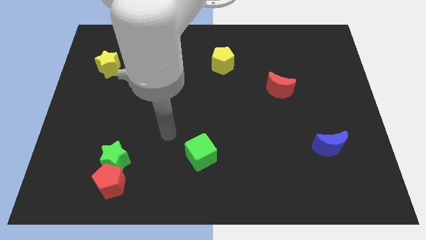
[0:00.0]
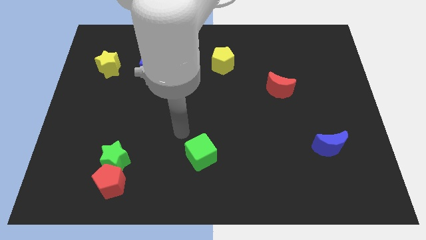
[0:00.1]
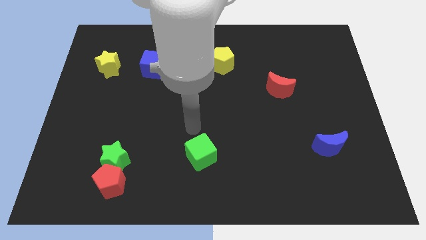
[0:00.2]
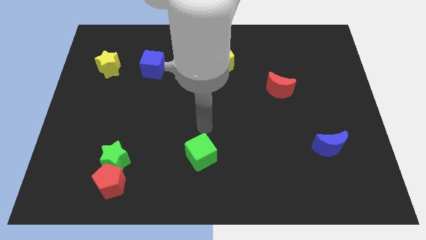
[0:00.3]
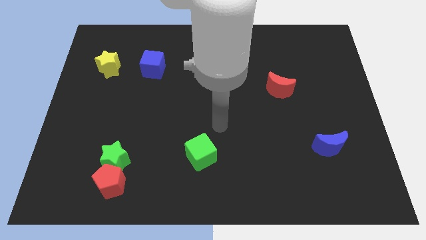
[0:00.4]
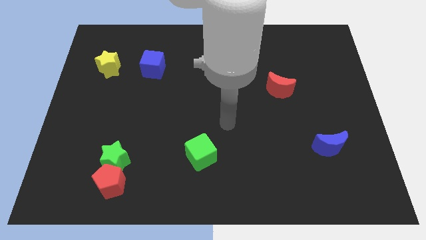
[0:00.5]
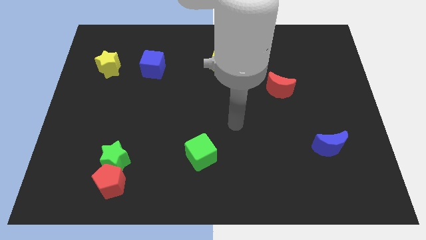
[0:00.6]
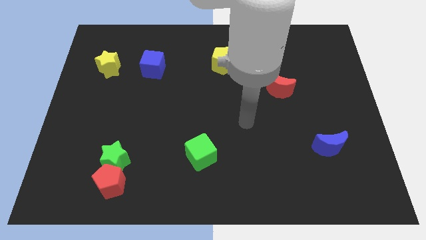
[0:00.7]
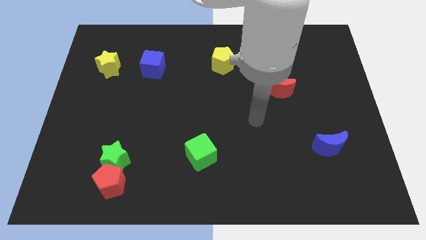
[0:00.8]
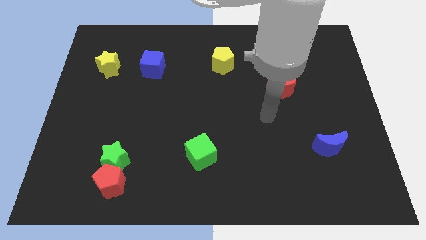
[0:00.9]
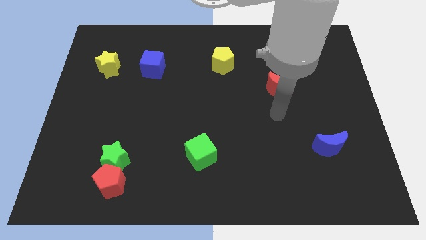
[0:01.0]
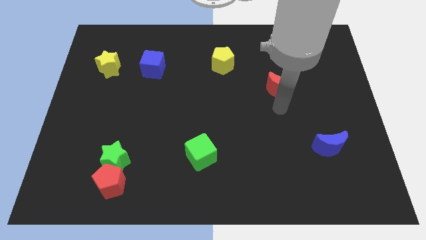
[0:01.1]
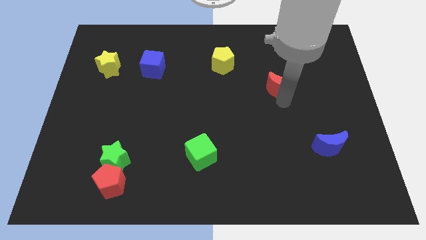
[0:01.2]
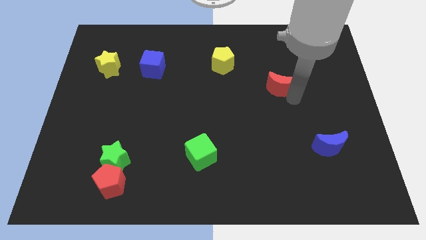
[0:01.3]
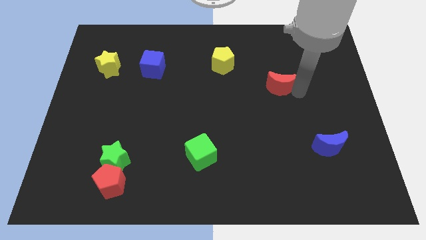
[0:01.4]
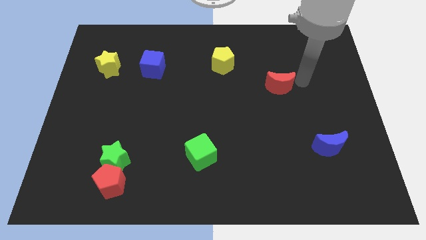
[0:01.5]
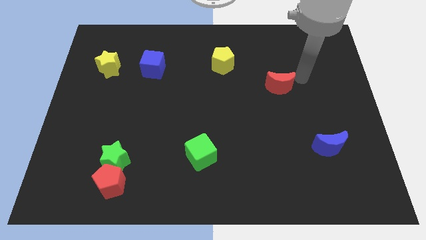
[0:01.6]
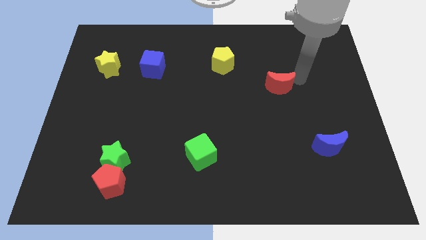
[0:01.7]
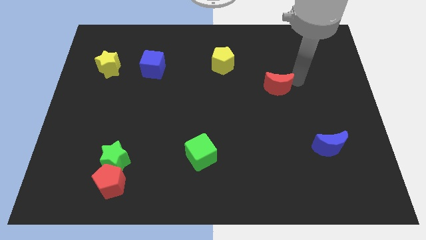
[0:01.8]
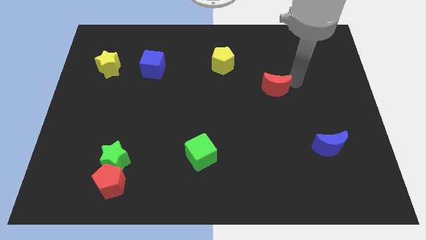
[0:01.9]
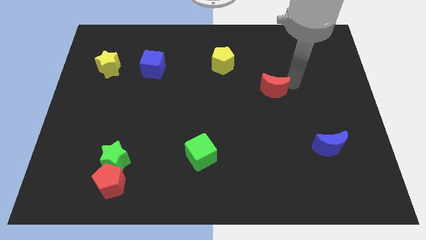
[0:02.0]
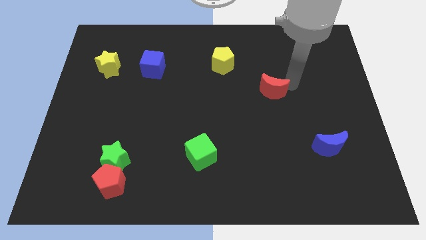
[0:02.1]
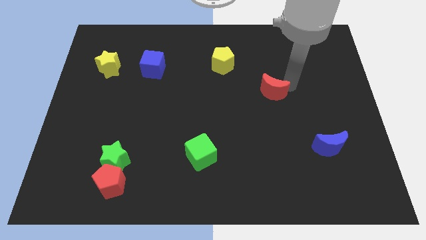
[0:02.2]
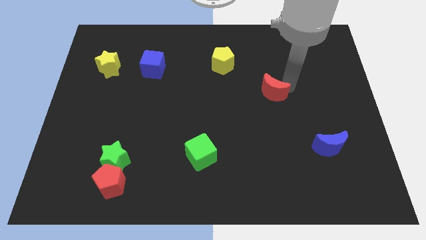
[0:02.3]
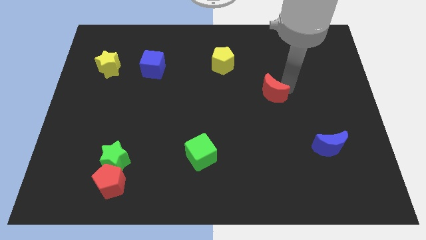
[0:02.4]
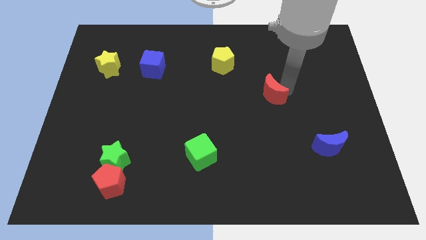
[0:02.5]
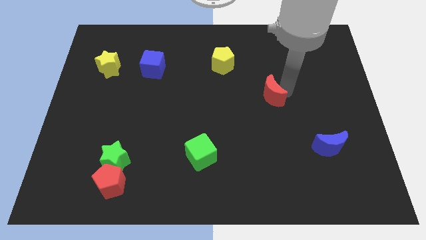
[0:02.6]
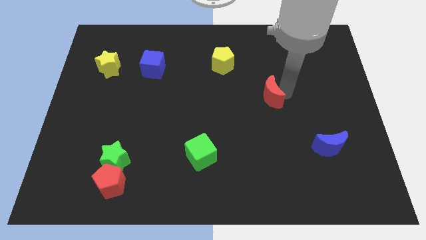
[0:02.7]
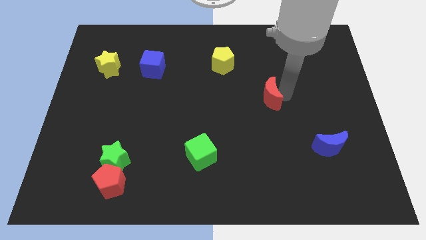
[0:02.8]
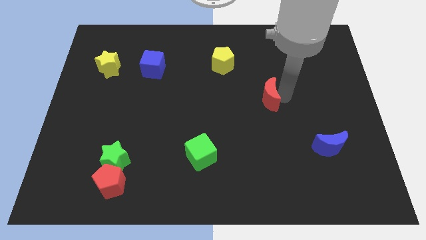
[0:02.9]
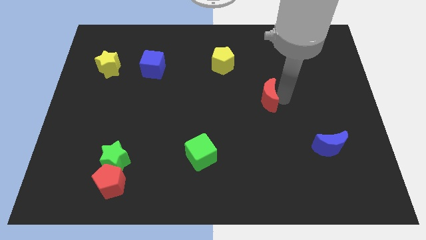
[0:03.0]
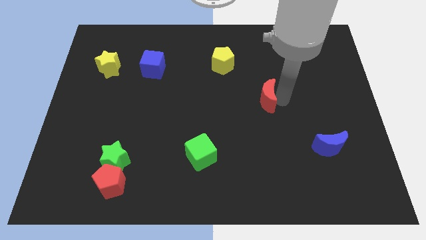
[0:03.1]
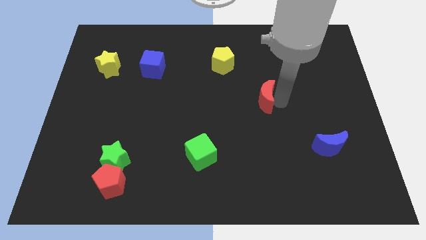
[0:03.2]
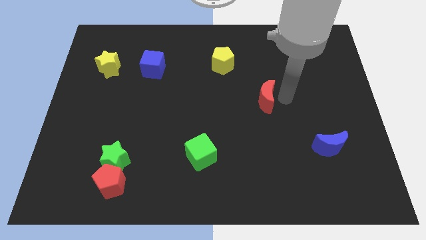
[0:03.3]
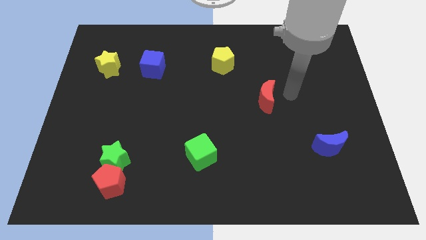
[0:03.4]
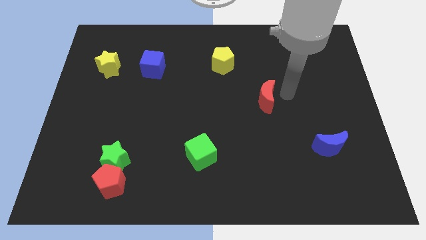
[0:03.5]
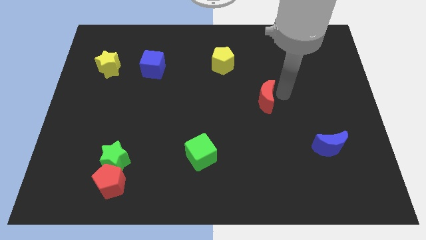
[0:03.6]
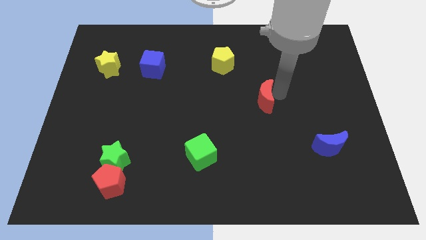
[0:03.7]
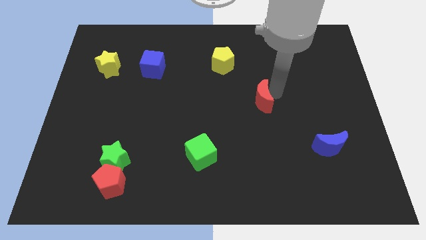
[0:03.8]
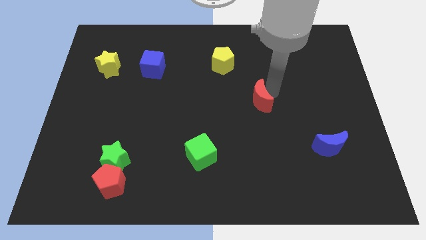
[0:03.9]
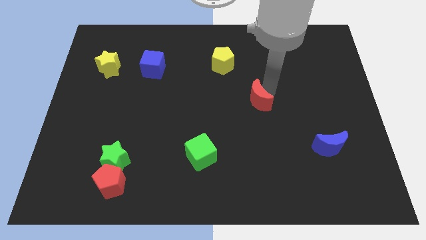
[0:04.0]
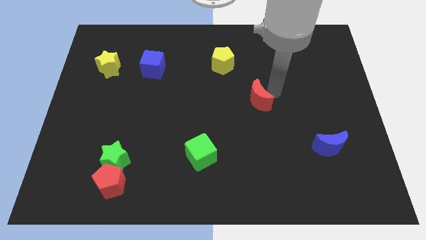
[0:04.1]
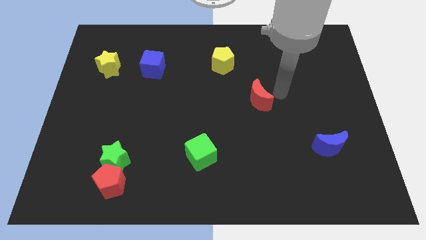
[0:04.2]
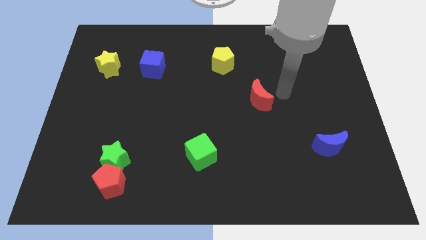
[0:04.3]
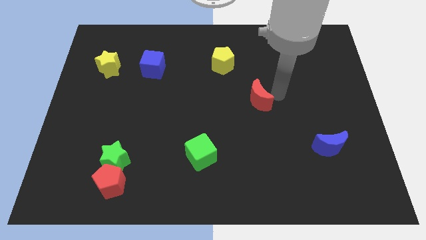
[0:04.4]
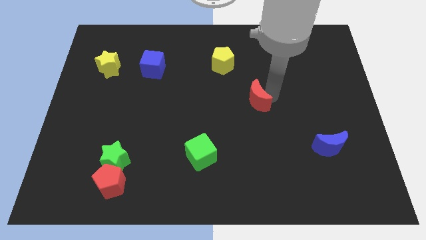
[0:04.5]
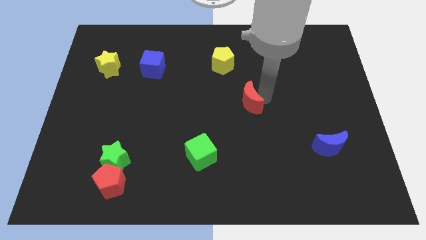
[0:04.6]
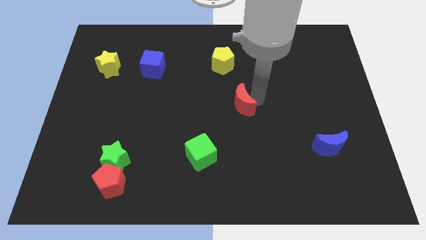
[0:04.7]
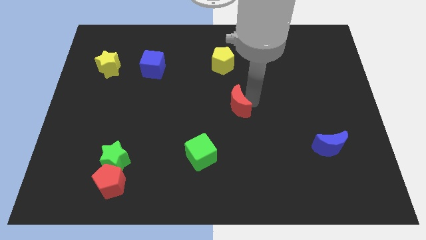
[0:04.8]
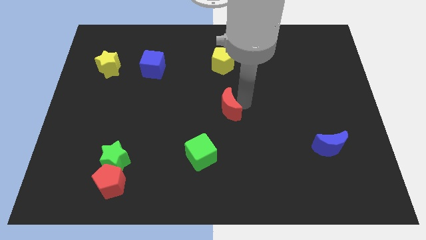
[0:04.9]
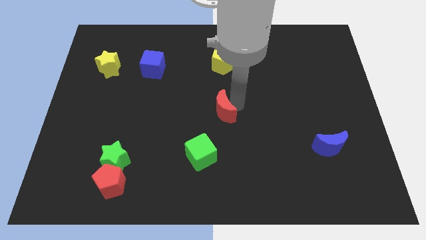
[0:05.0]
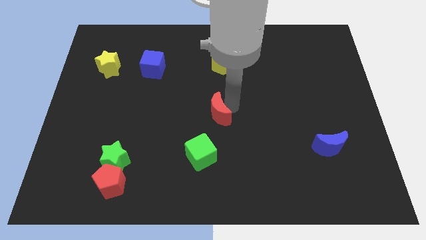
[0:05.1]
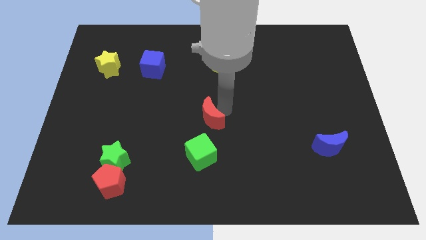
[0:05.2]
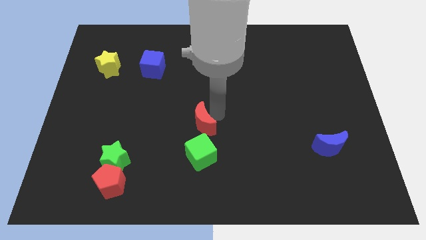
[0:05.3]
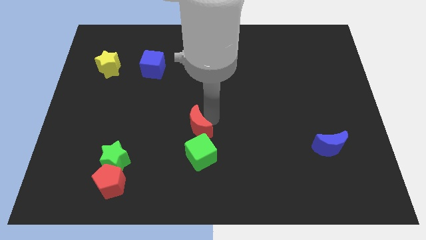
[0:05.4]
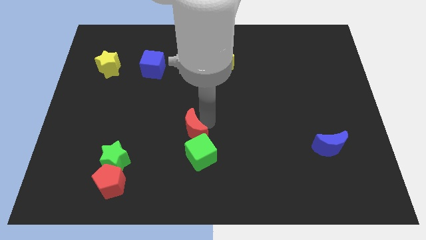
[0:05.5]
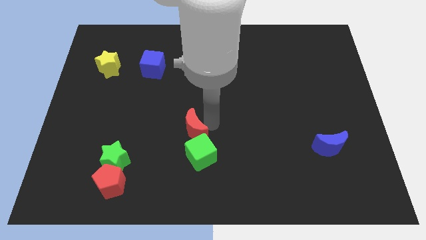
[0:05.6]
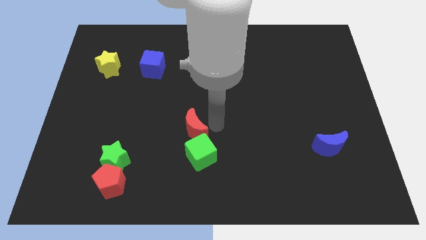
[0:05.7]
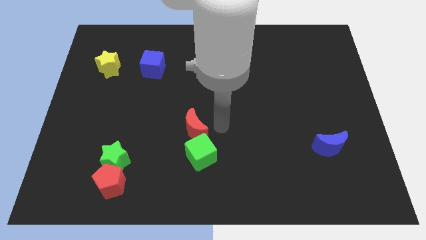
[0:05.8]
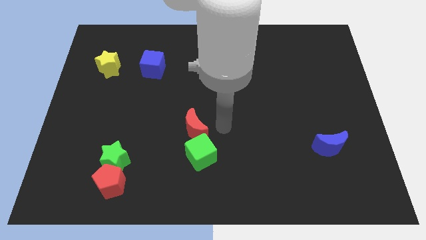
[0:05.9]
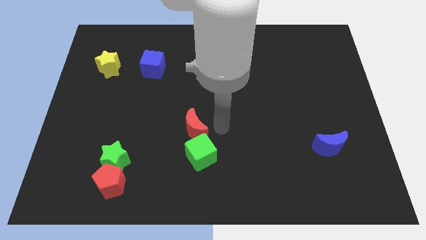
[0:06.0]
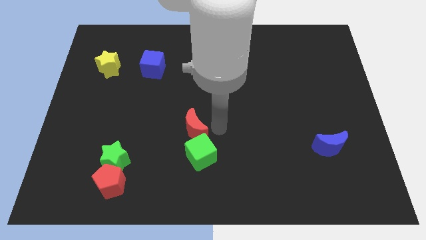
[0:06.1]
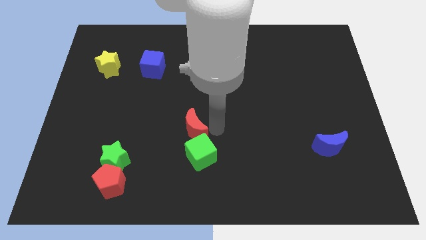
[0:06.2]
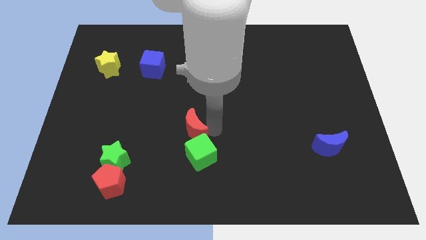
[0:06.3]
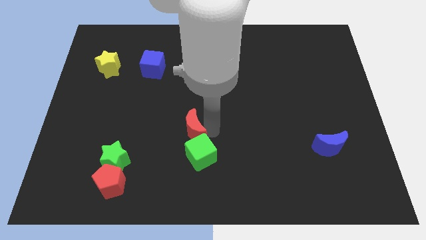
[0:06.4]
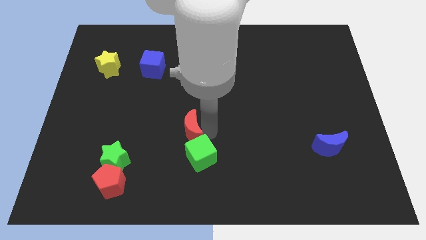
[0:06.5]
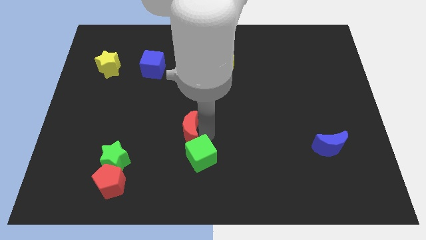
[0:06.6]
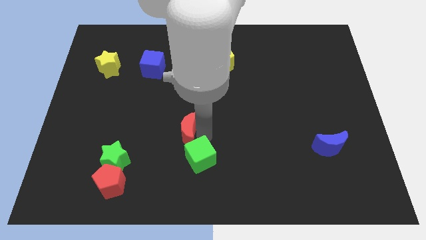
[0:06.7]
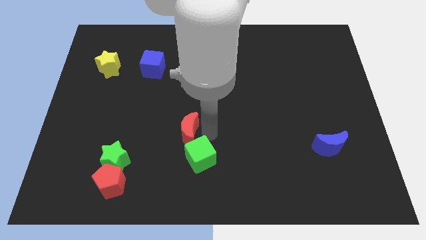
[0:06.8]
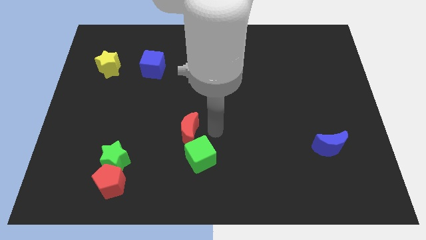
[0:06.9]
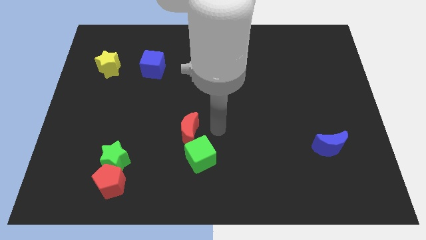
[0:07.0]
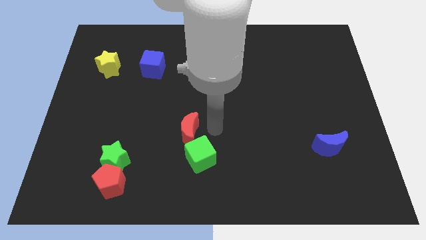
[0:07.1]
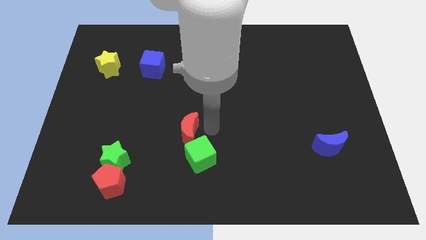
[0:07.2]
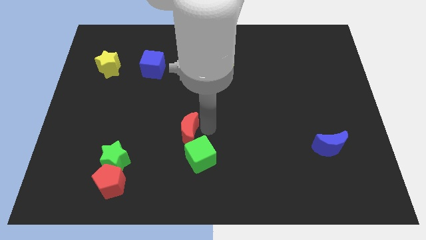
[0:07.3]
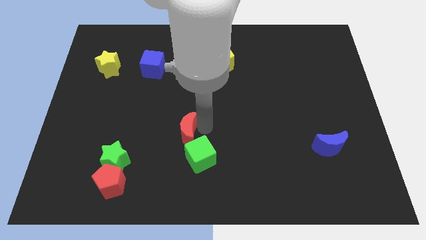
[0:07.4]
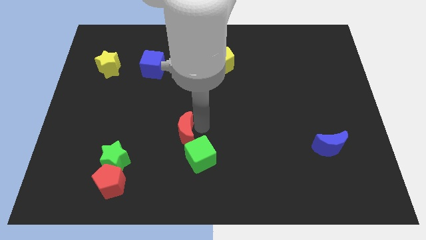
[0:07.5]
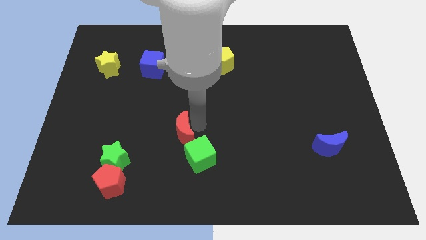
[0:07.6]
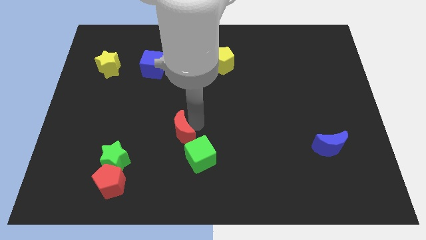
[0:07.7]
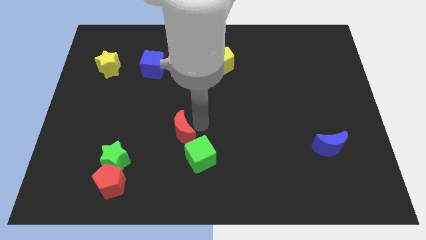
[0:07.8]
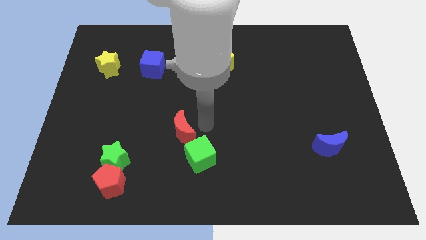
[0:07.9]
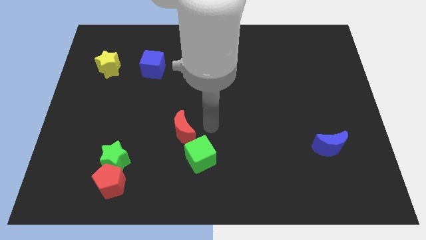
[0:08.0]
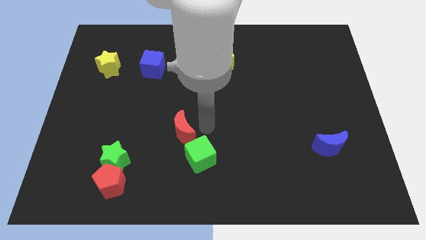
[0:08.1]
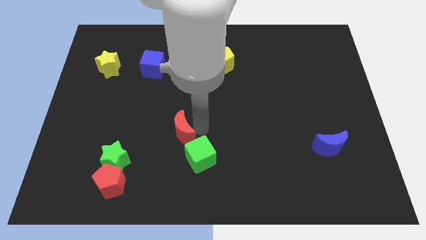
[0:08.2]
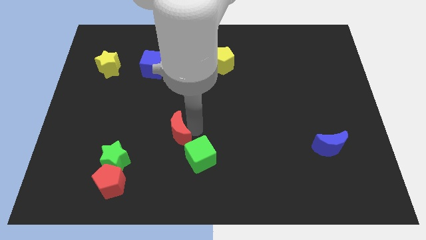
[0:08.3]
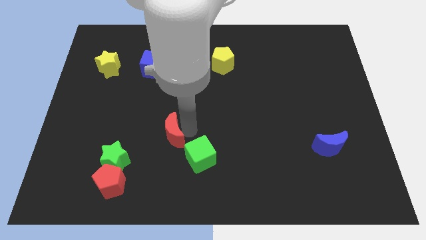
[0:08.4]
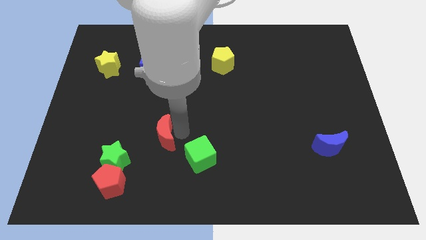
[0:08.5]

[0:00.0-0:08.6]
slide the red moon diagonally up and to the right of the green star
